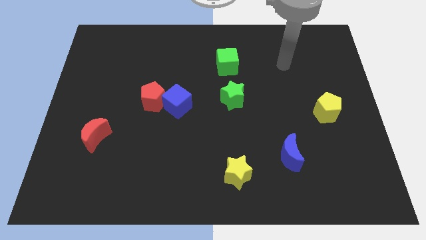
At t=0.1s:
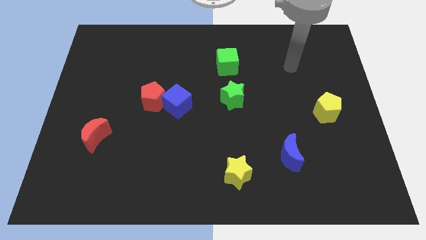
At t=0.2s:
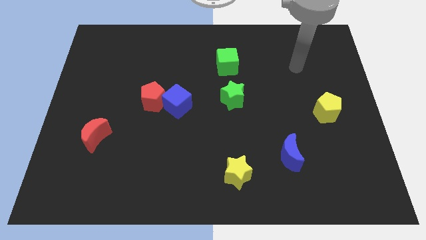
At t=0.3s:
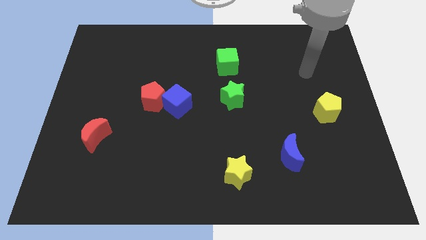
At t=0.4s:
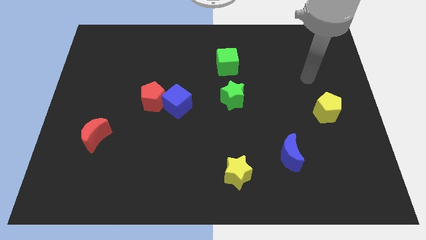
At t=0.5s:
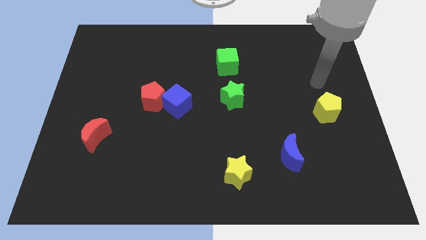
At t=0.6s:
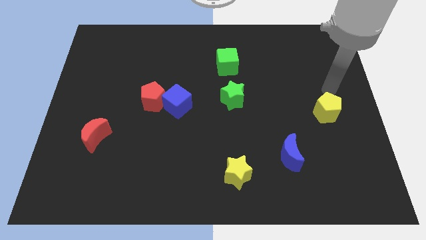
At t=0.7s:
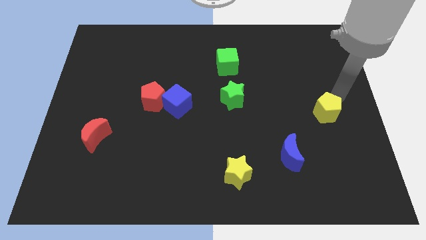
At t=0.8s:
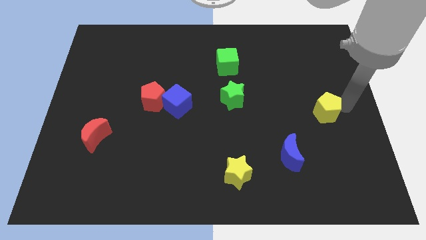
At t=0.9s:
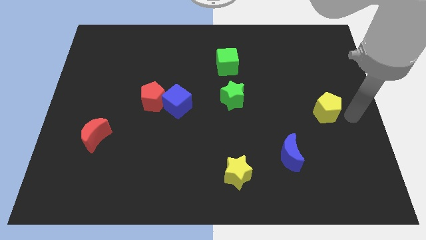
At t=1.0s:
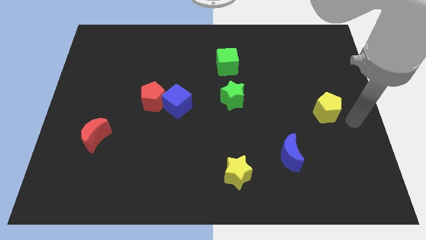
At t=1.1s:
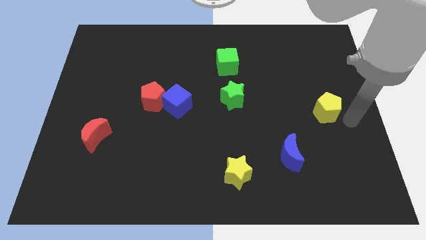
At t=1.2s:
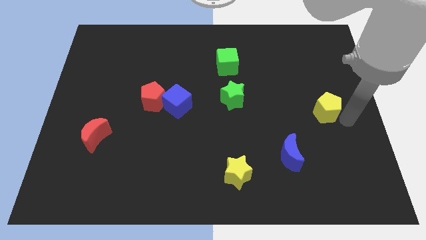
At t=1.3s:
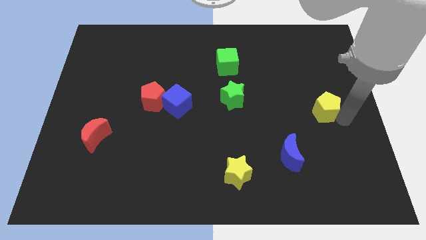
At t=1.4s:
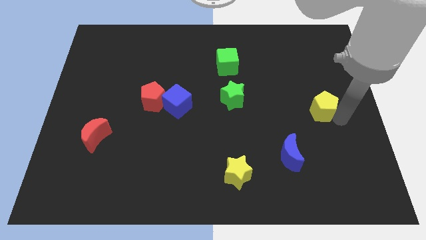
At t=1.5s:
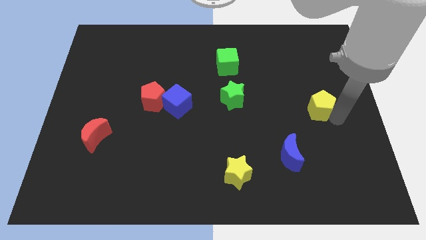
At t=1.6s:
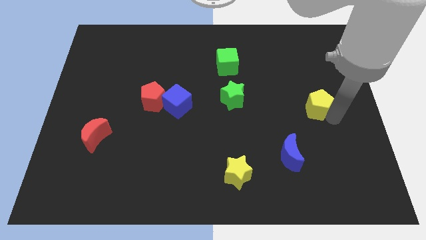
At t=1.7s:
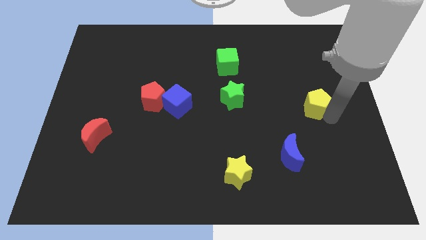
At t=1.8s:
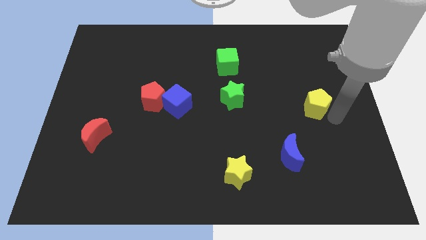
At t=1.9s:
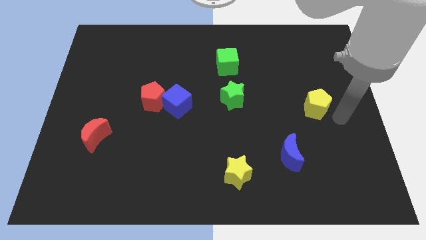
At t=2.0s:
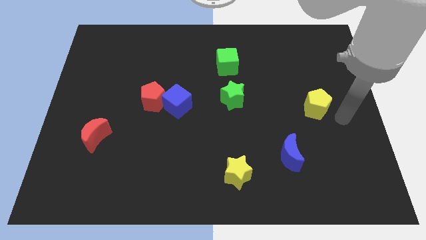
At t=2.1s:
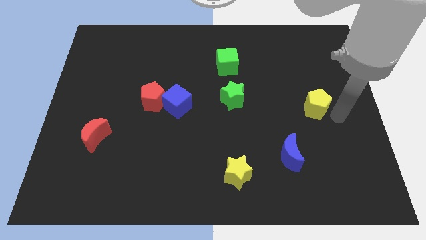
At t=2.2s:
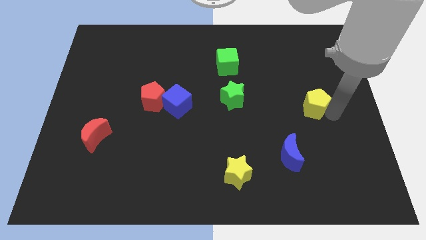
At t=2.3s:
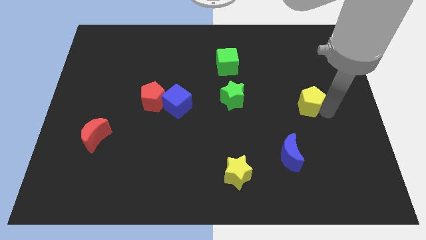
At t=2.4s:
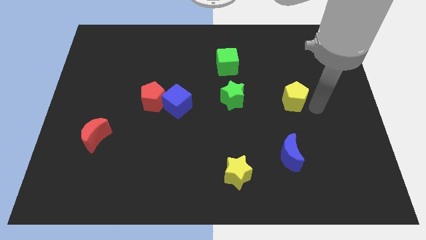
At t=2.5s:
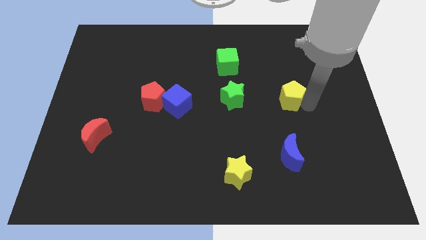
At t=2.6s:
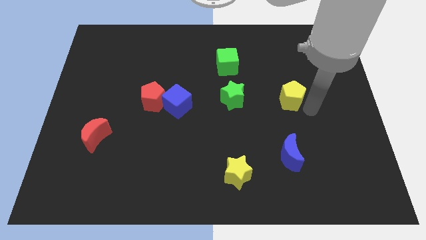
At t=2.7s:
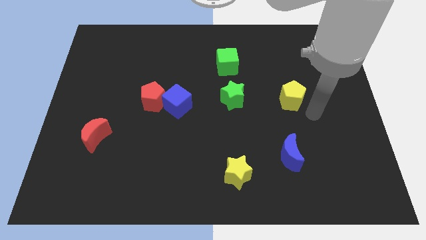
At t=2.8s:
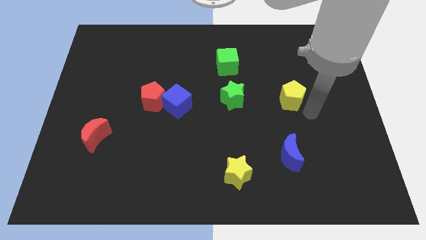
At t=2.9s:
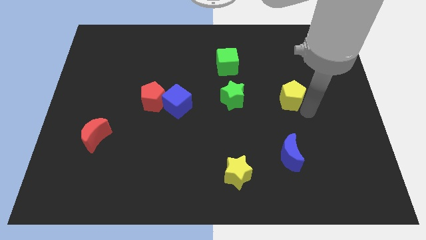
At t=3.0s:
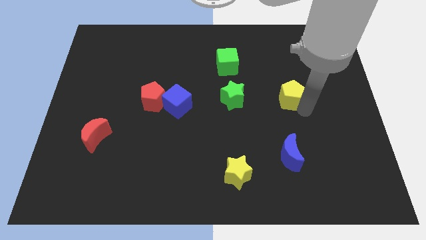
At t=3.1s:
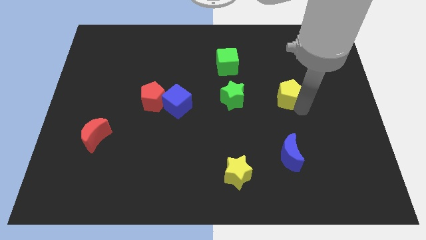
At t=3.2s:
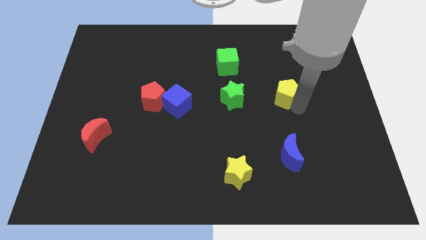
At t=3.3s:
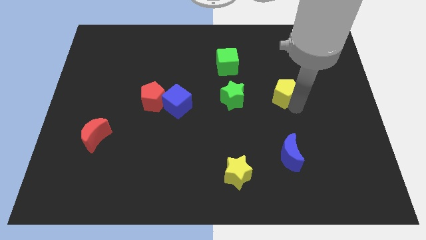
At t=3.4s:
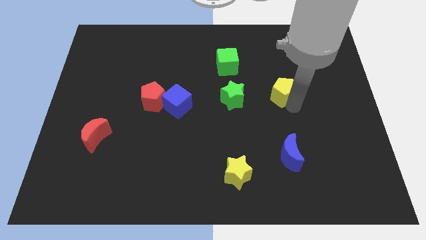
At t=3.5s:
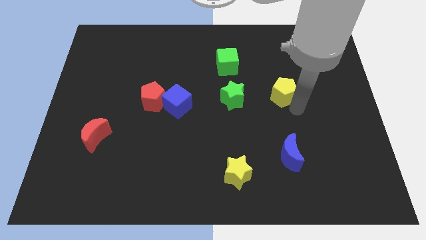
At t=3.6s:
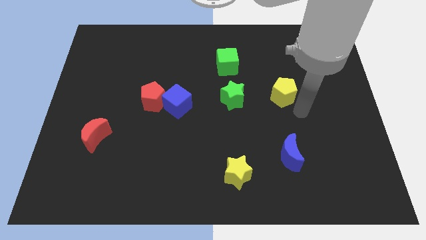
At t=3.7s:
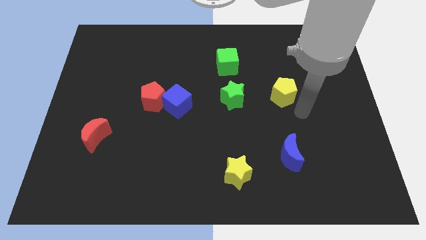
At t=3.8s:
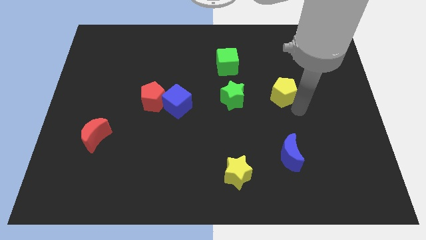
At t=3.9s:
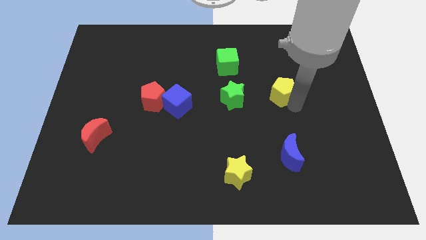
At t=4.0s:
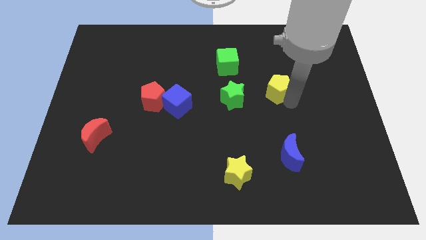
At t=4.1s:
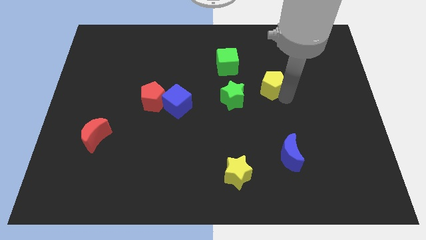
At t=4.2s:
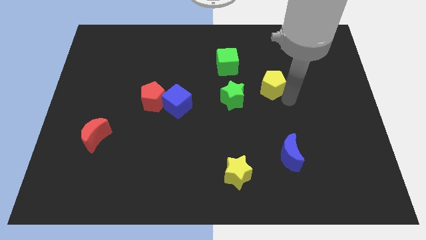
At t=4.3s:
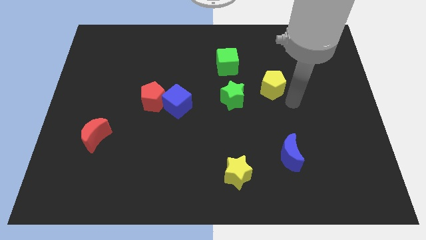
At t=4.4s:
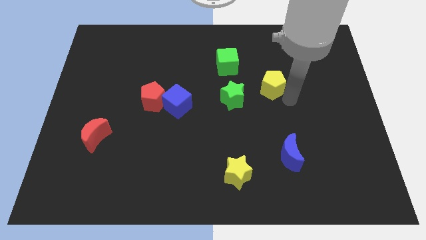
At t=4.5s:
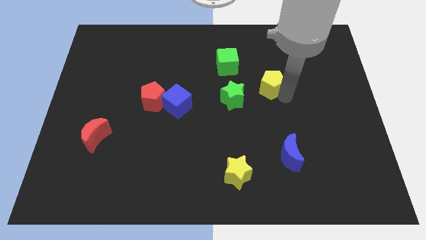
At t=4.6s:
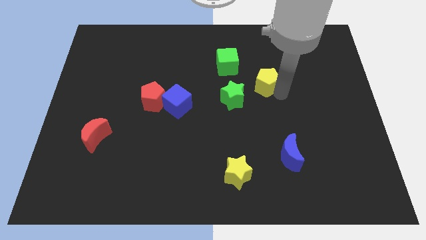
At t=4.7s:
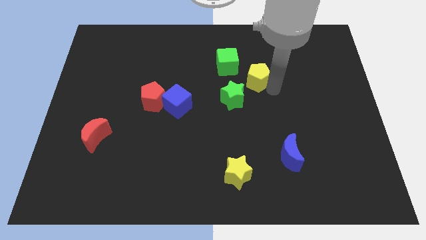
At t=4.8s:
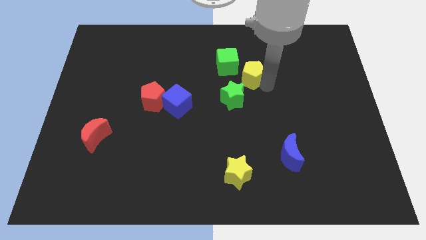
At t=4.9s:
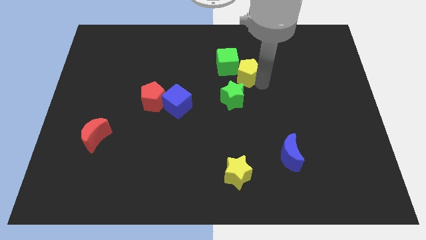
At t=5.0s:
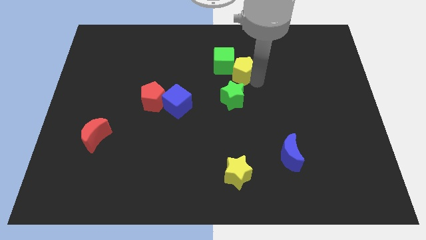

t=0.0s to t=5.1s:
move the yellow pentagon close to the green cube

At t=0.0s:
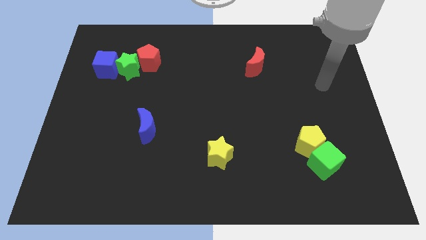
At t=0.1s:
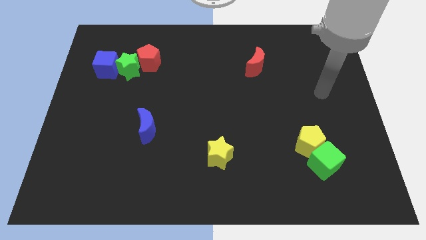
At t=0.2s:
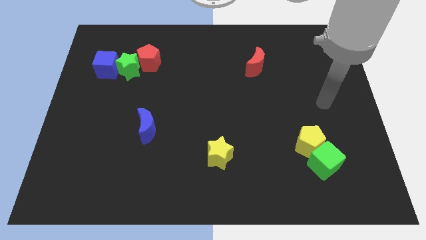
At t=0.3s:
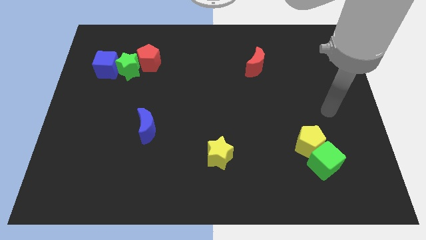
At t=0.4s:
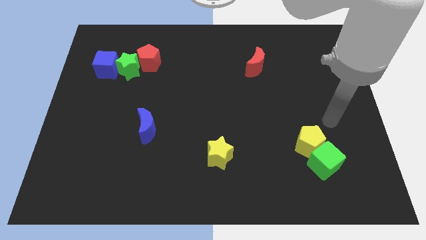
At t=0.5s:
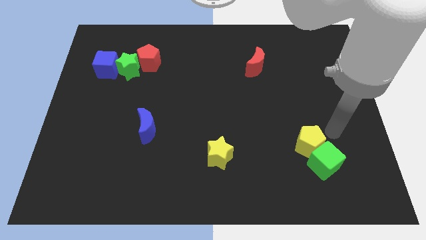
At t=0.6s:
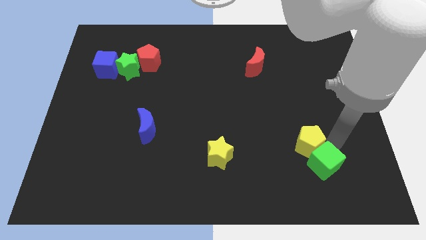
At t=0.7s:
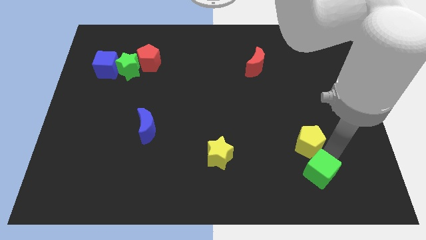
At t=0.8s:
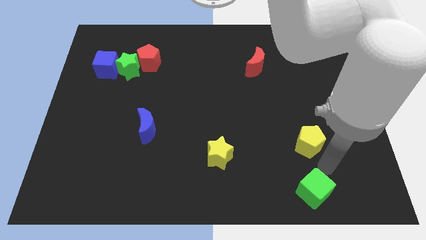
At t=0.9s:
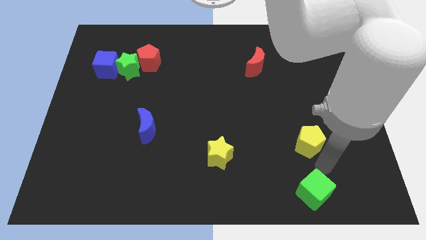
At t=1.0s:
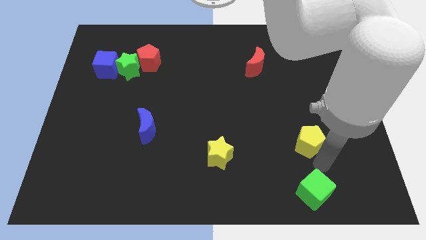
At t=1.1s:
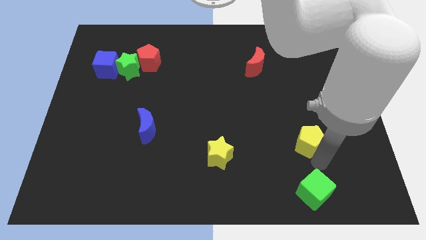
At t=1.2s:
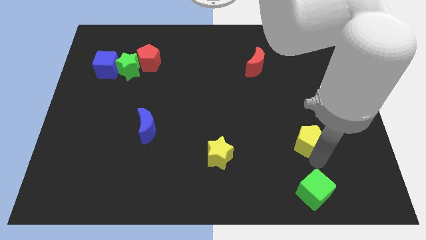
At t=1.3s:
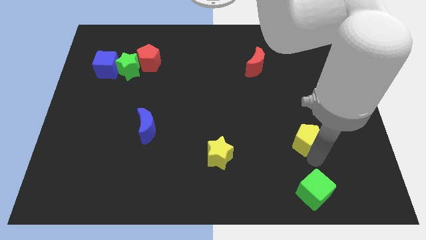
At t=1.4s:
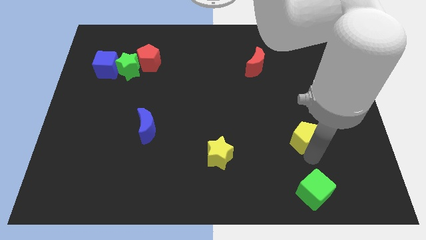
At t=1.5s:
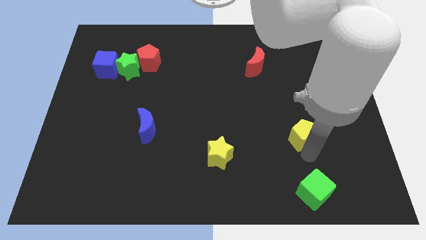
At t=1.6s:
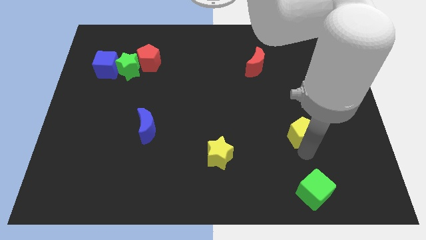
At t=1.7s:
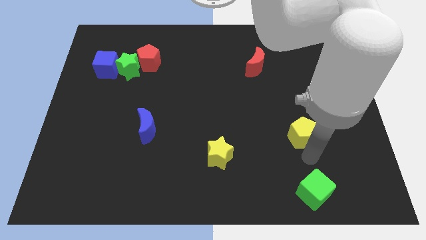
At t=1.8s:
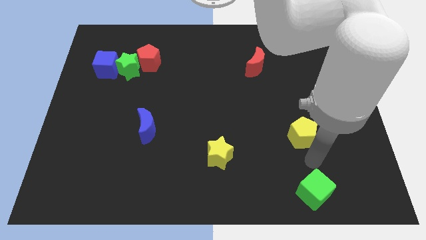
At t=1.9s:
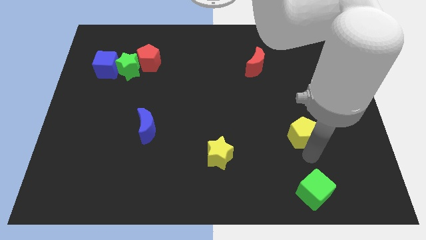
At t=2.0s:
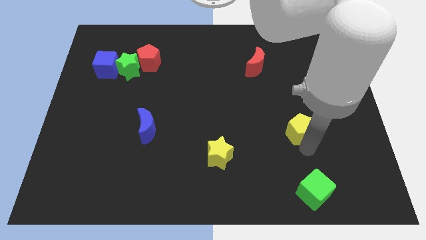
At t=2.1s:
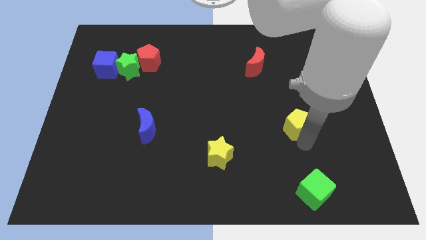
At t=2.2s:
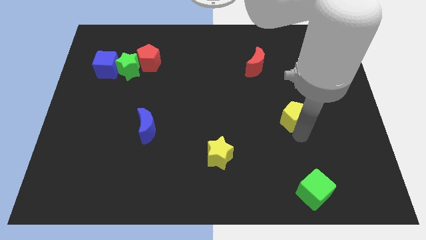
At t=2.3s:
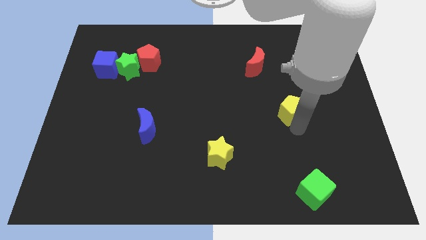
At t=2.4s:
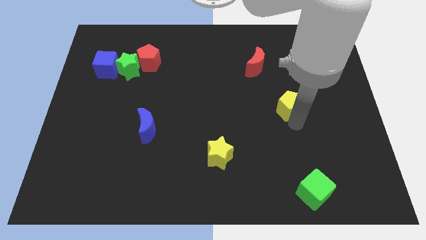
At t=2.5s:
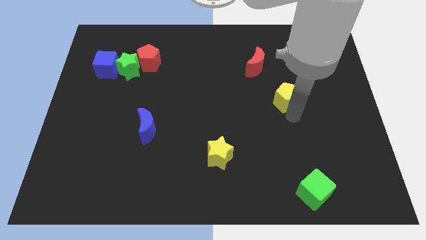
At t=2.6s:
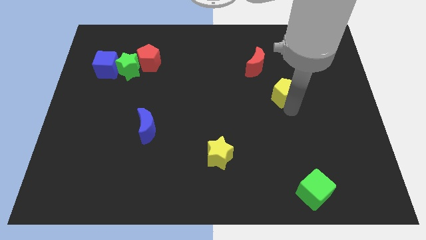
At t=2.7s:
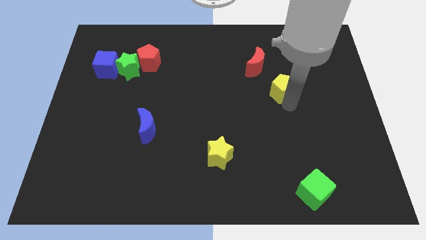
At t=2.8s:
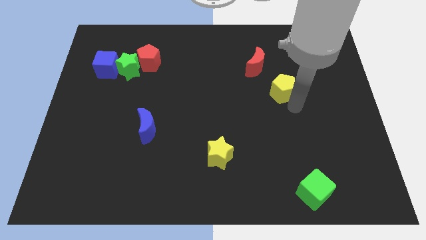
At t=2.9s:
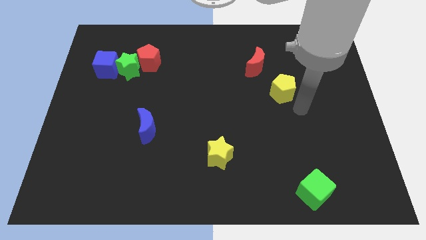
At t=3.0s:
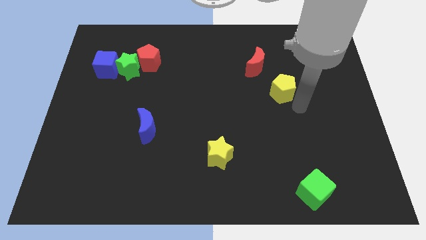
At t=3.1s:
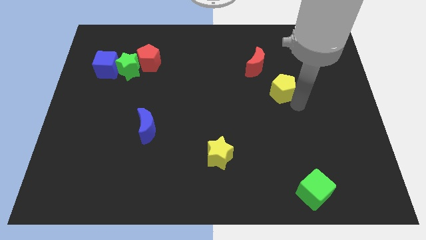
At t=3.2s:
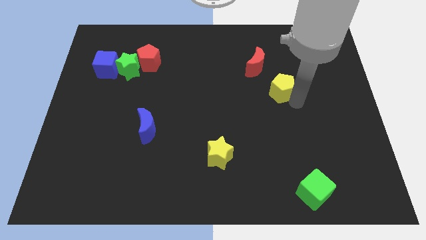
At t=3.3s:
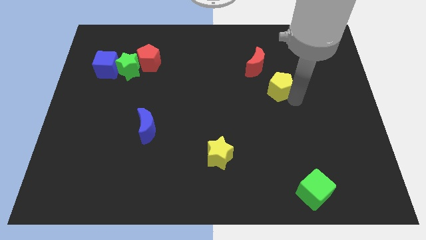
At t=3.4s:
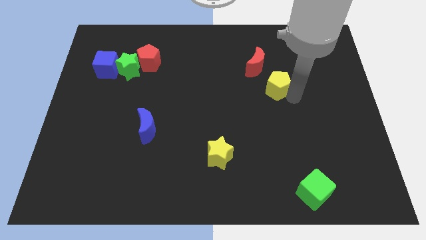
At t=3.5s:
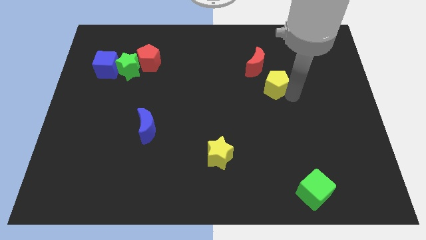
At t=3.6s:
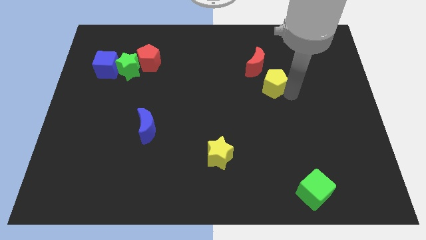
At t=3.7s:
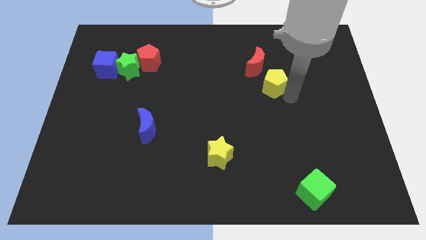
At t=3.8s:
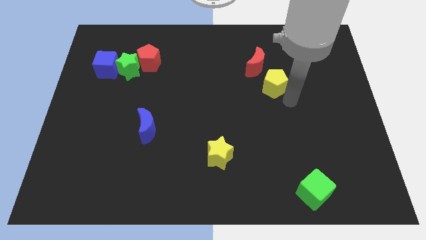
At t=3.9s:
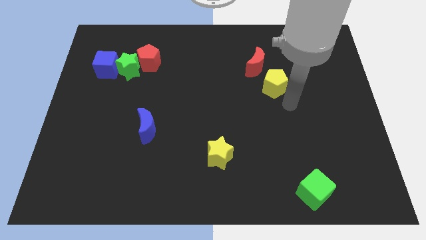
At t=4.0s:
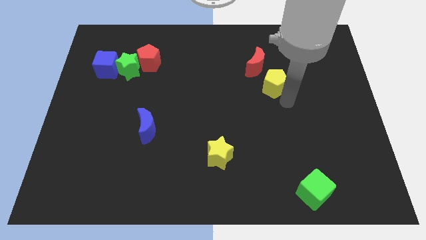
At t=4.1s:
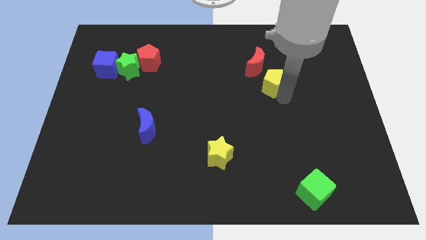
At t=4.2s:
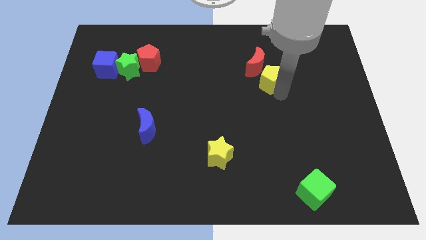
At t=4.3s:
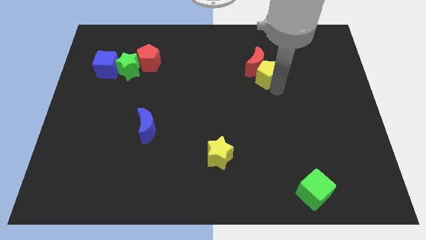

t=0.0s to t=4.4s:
move the yellow pentagon to the red moon
